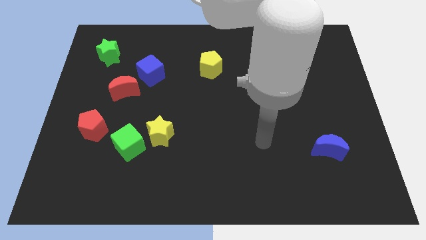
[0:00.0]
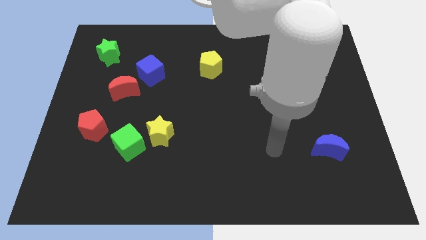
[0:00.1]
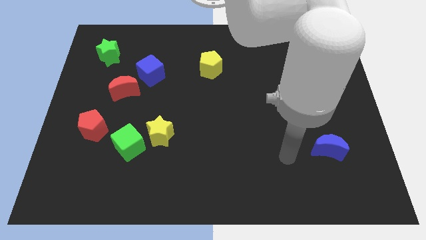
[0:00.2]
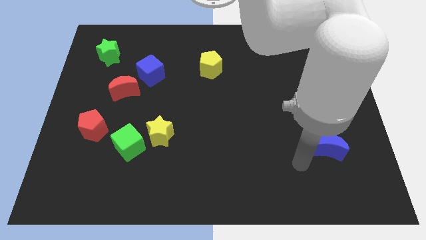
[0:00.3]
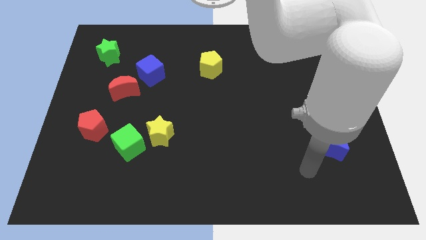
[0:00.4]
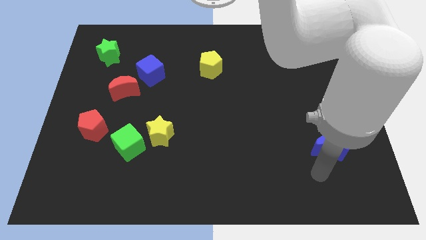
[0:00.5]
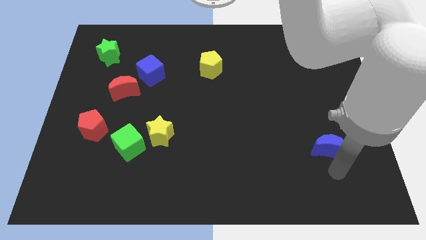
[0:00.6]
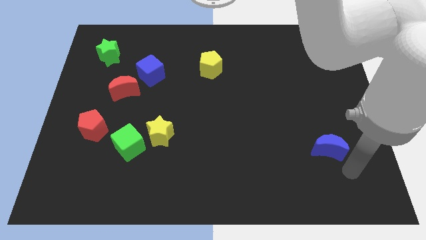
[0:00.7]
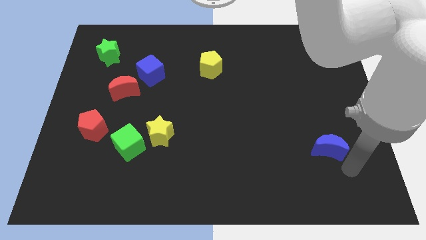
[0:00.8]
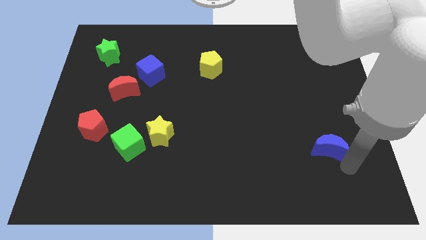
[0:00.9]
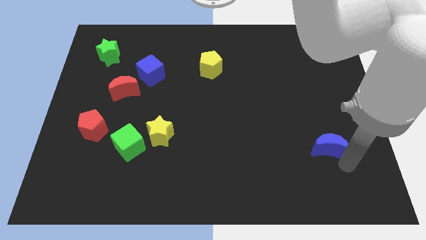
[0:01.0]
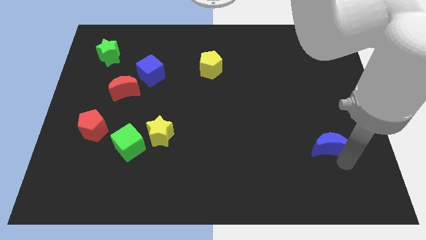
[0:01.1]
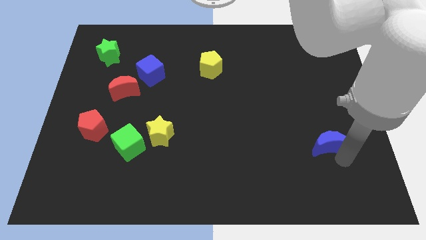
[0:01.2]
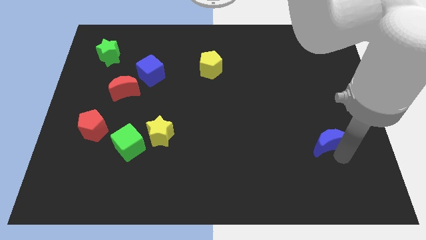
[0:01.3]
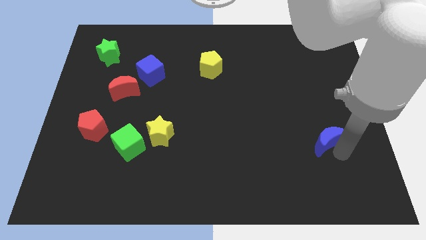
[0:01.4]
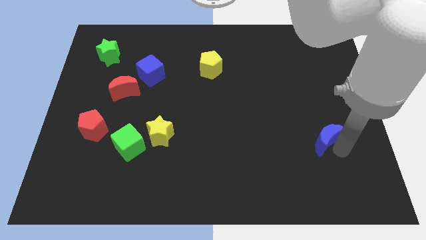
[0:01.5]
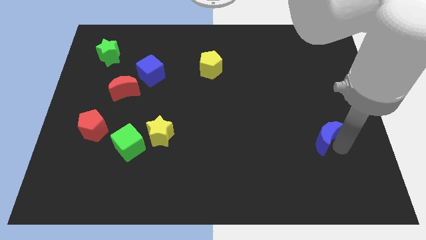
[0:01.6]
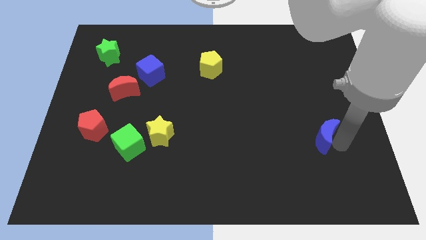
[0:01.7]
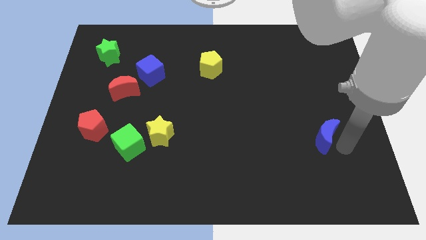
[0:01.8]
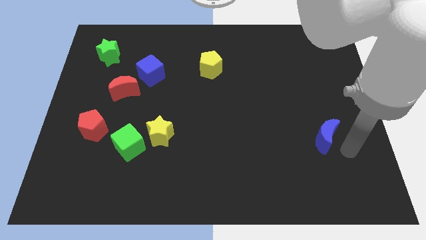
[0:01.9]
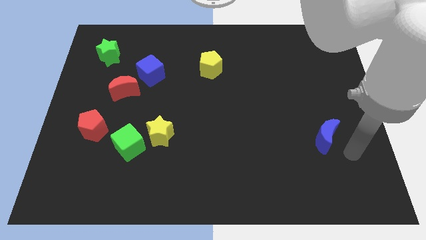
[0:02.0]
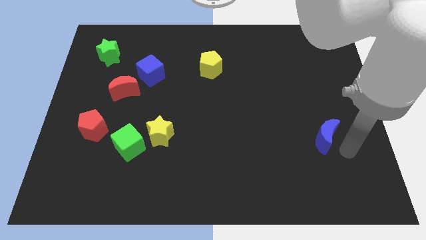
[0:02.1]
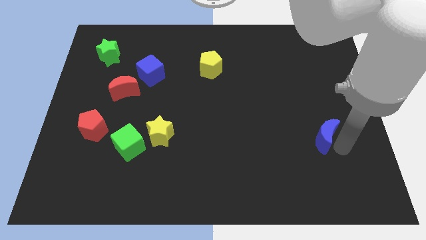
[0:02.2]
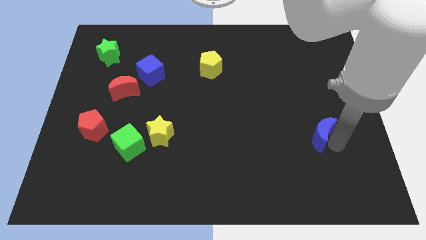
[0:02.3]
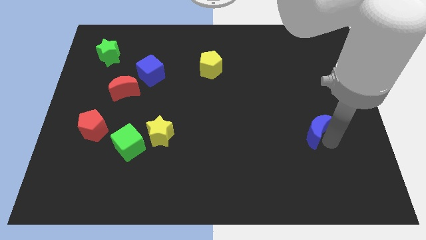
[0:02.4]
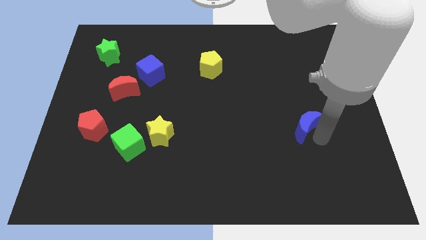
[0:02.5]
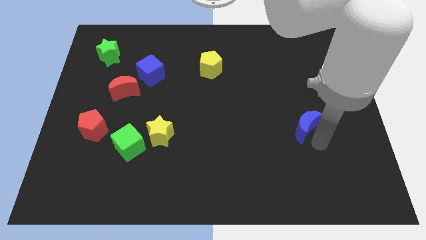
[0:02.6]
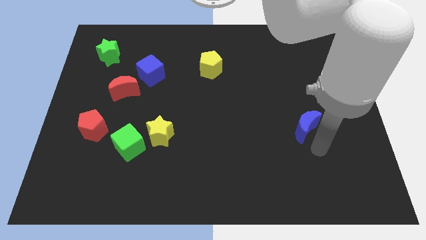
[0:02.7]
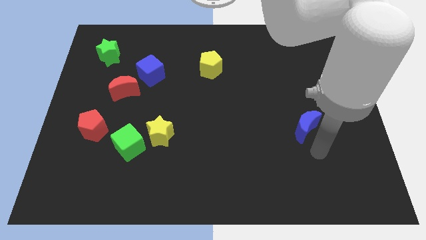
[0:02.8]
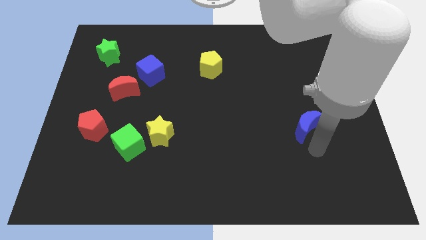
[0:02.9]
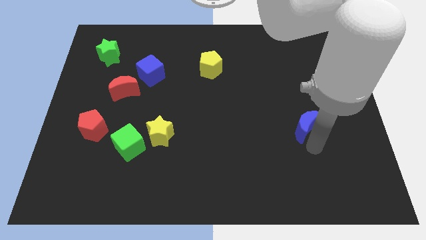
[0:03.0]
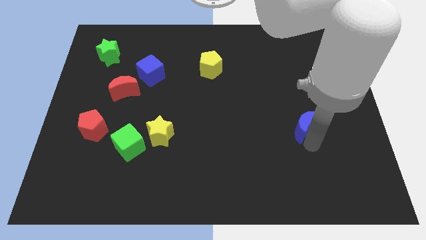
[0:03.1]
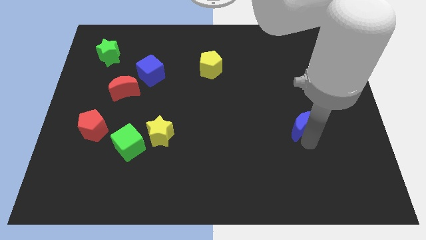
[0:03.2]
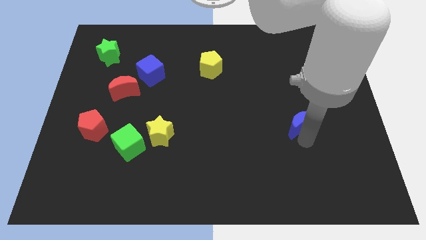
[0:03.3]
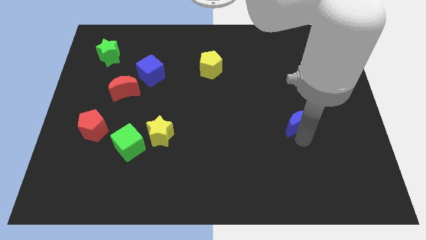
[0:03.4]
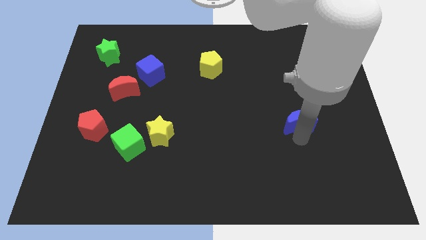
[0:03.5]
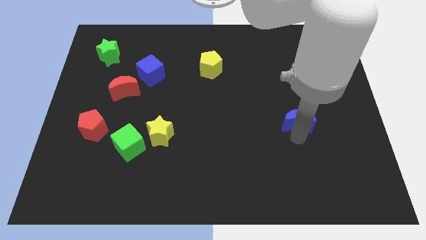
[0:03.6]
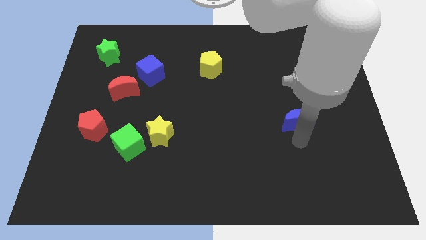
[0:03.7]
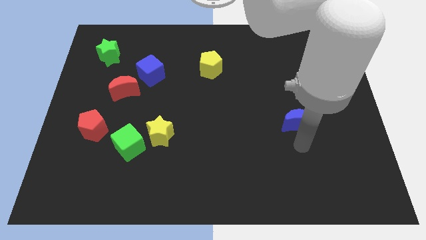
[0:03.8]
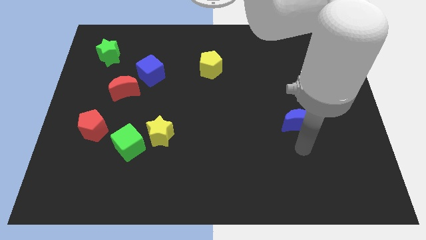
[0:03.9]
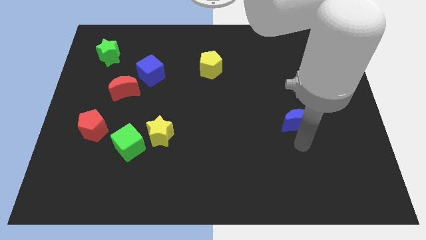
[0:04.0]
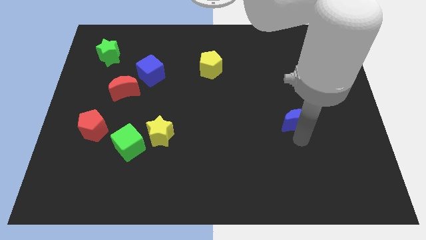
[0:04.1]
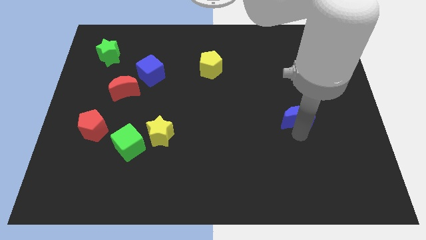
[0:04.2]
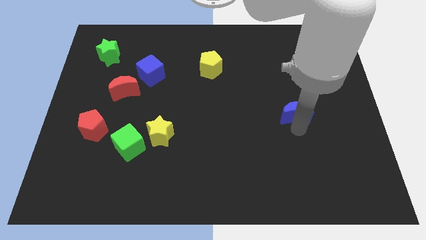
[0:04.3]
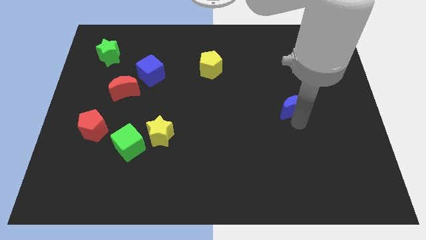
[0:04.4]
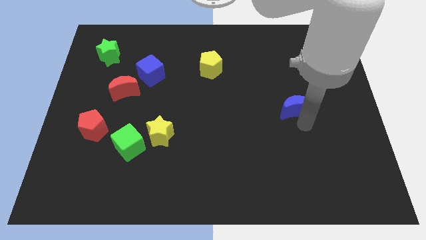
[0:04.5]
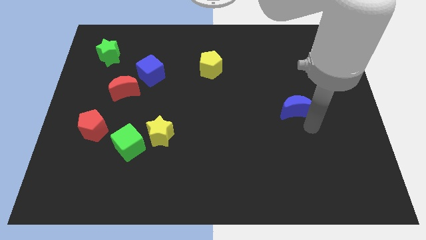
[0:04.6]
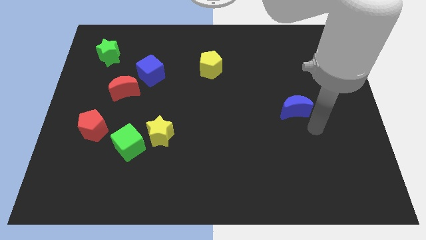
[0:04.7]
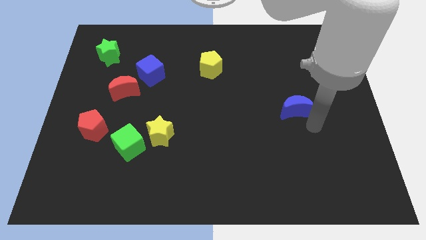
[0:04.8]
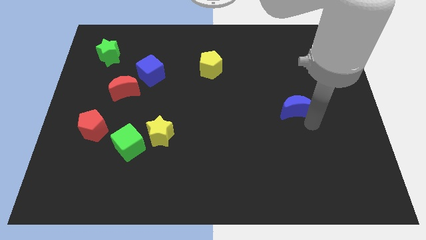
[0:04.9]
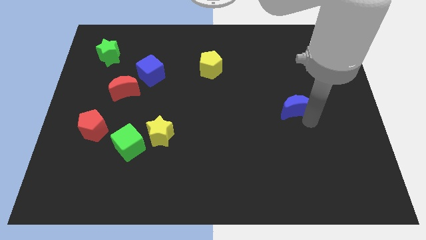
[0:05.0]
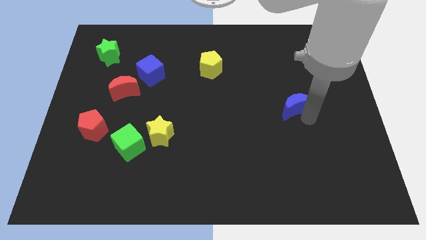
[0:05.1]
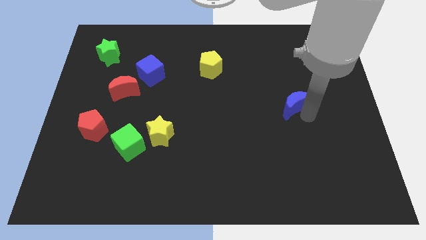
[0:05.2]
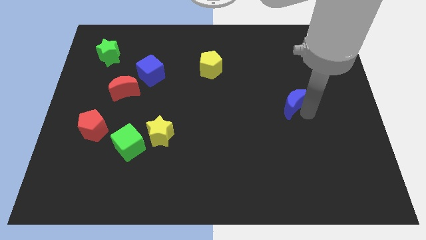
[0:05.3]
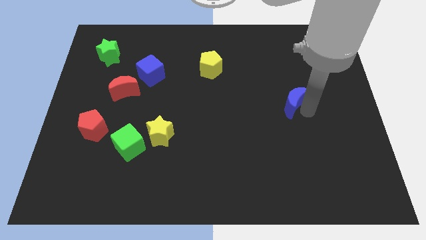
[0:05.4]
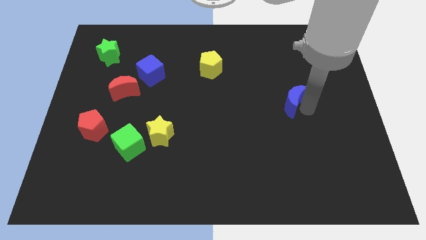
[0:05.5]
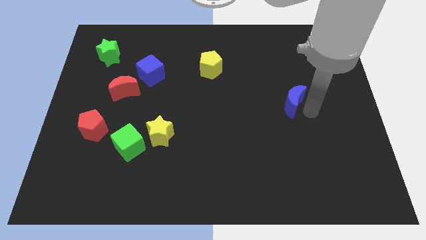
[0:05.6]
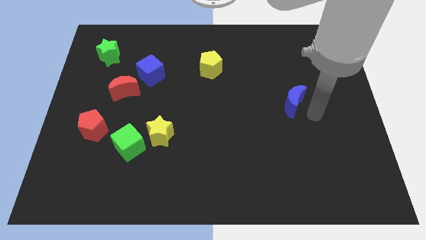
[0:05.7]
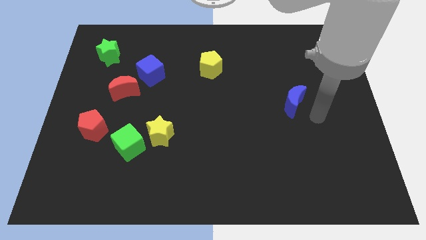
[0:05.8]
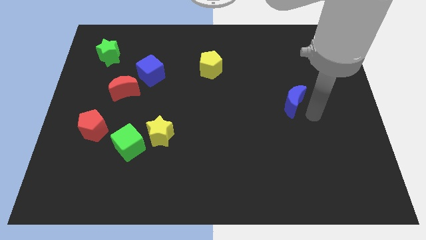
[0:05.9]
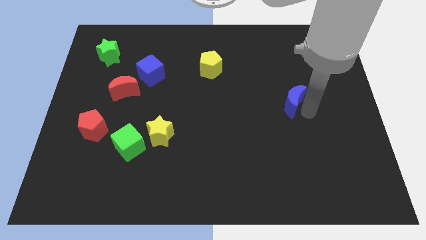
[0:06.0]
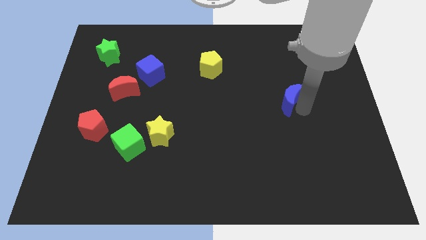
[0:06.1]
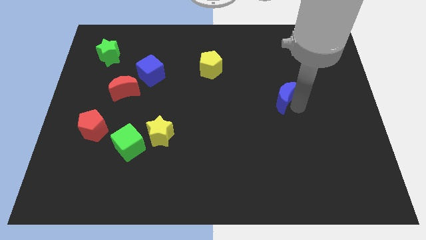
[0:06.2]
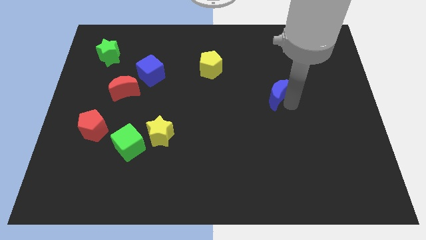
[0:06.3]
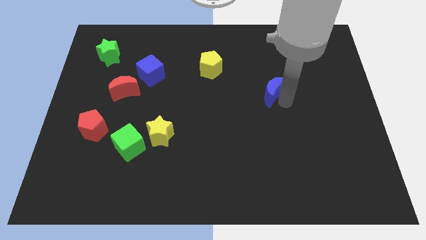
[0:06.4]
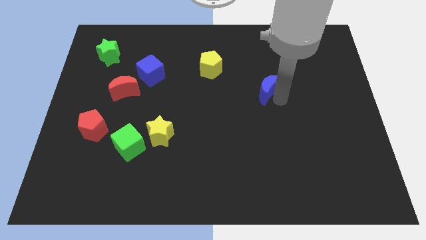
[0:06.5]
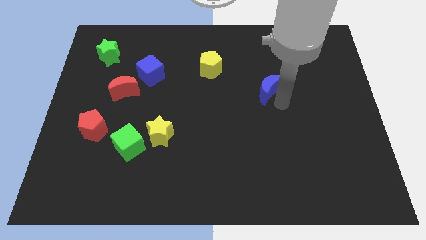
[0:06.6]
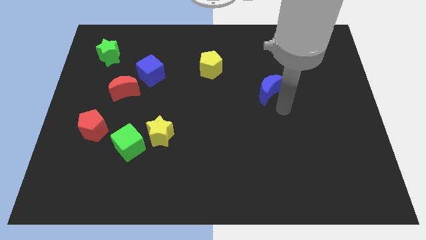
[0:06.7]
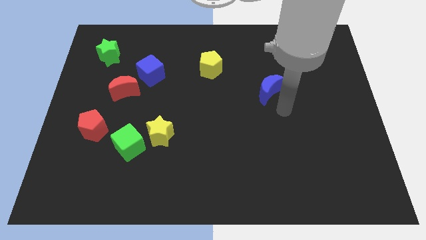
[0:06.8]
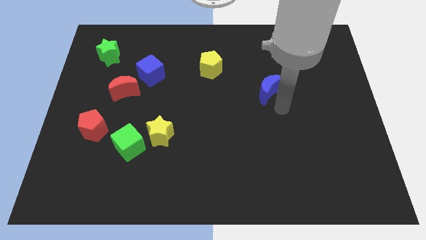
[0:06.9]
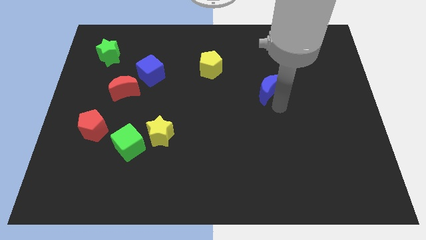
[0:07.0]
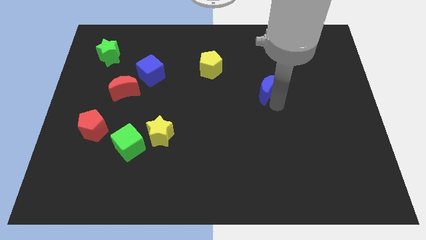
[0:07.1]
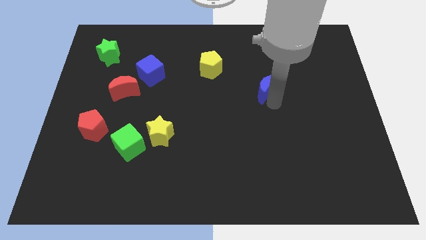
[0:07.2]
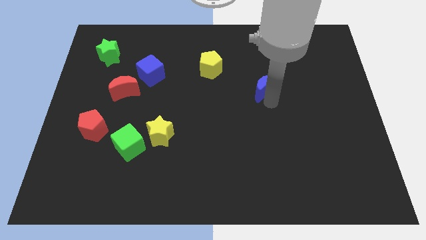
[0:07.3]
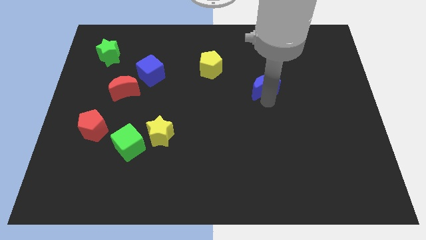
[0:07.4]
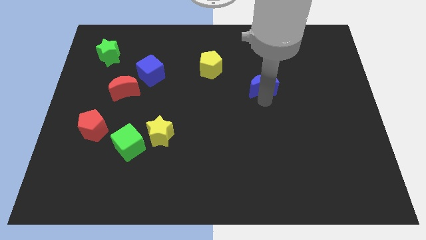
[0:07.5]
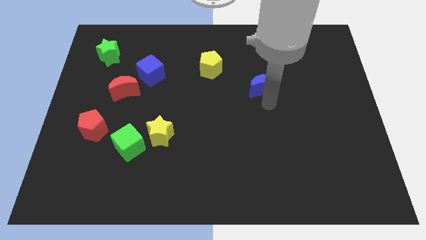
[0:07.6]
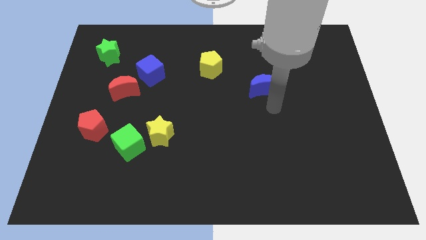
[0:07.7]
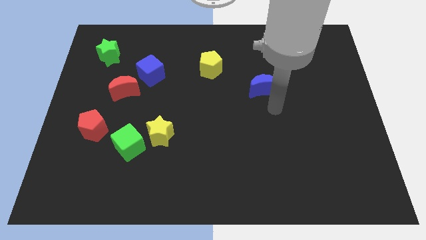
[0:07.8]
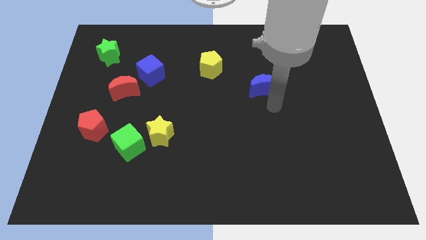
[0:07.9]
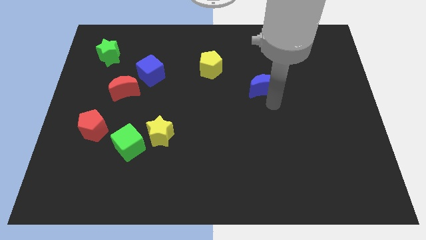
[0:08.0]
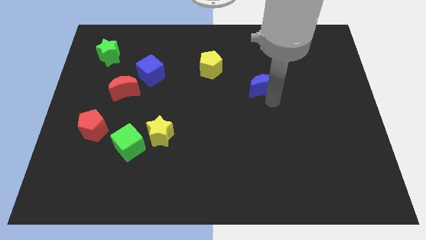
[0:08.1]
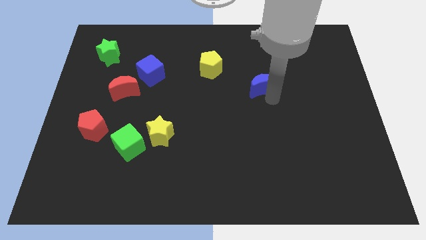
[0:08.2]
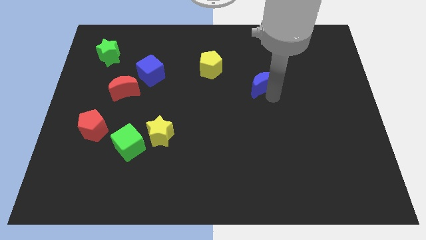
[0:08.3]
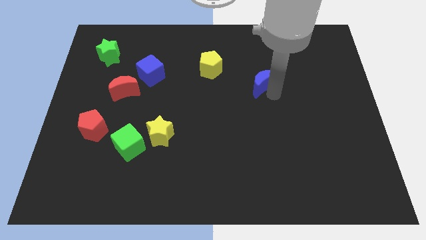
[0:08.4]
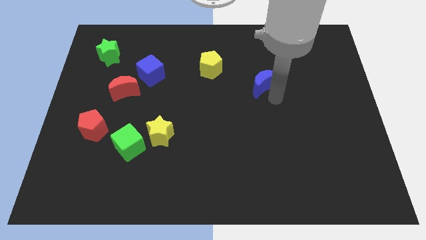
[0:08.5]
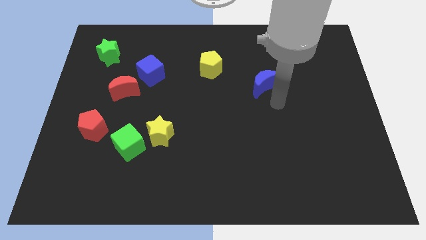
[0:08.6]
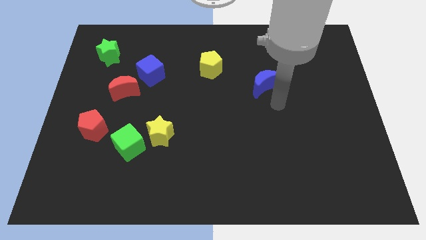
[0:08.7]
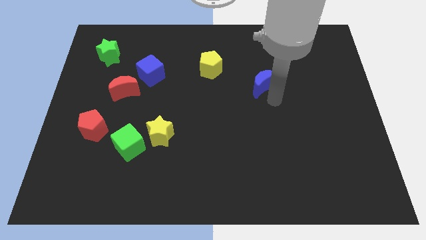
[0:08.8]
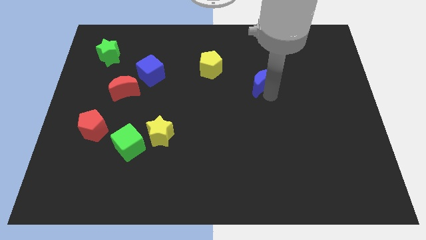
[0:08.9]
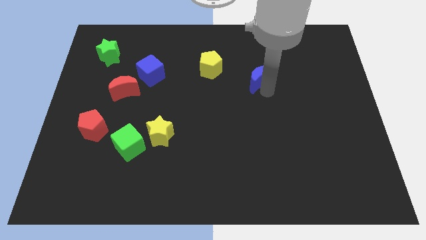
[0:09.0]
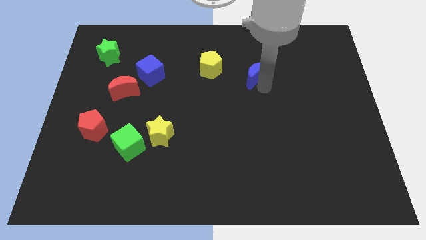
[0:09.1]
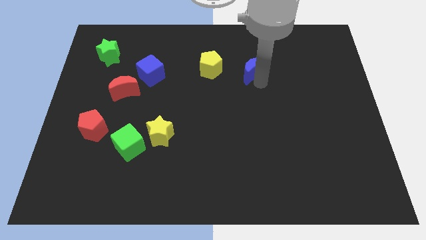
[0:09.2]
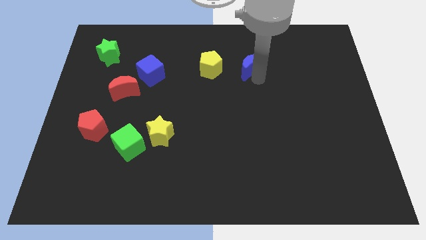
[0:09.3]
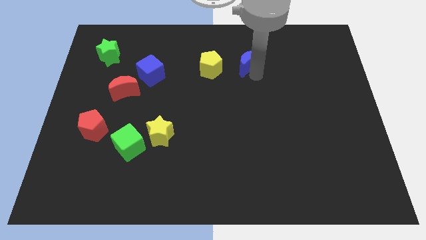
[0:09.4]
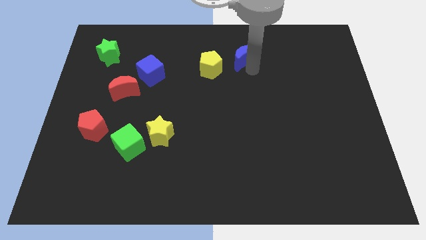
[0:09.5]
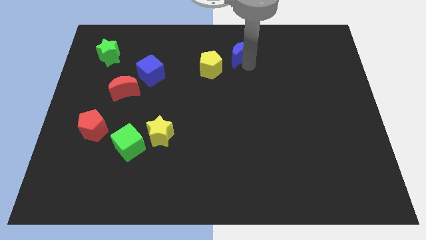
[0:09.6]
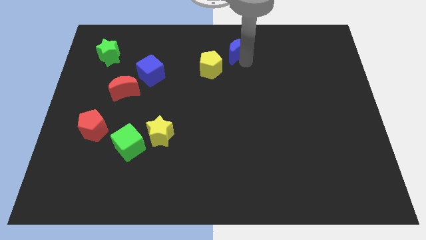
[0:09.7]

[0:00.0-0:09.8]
move the blue moon to the towards your base
